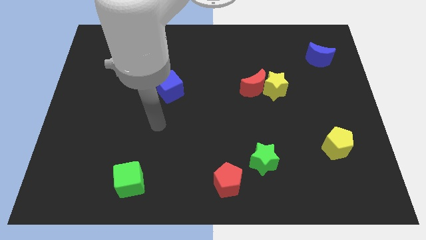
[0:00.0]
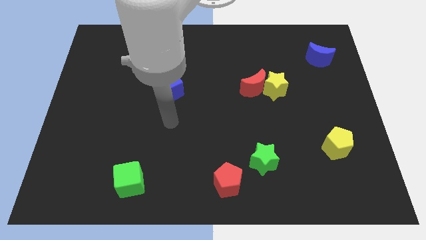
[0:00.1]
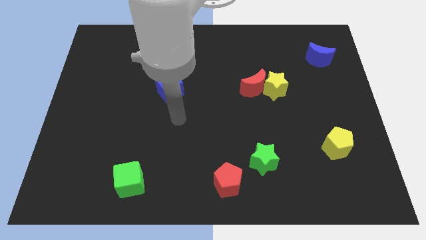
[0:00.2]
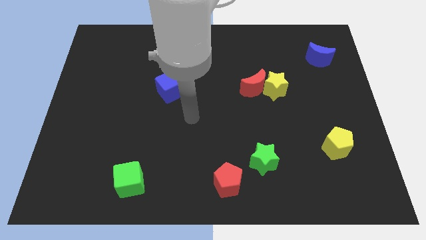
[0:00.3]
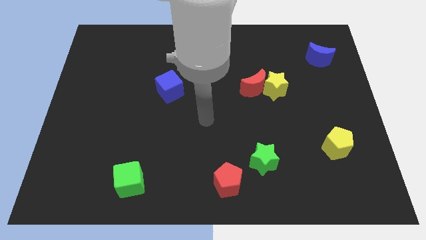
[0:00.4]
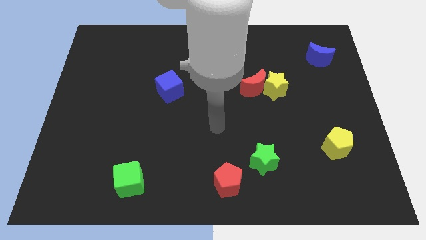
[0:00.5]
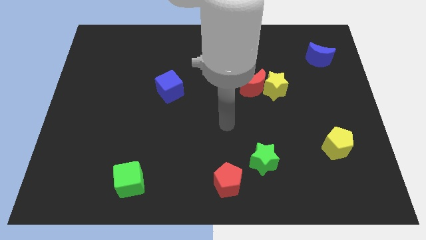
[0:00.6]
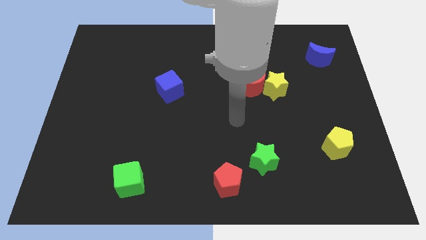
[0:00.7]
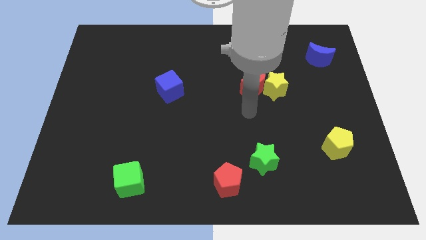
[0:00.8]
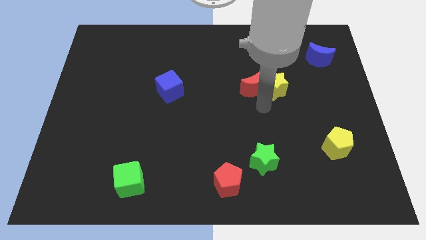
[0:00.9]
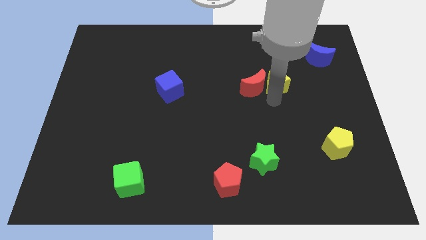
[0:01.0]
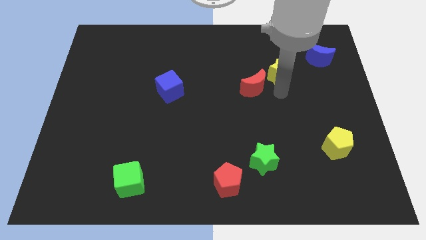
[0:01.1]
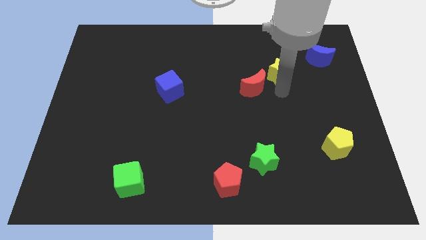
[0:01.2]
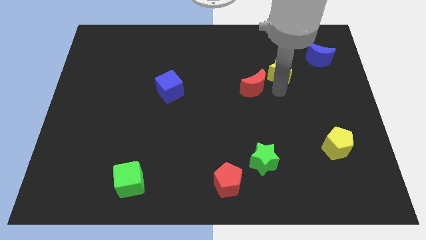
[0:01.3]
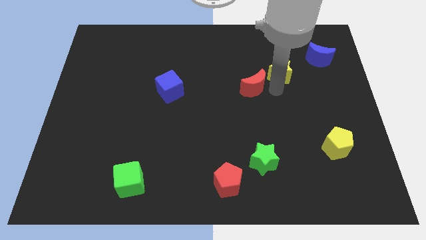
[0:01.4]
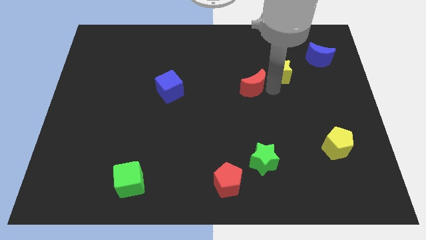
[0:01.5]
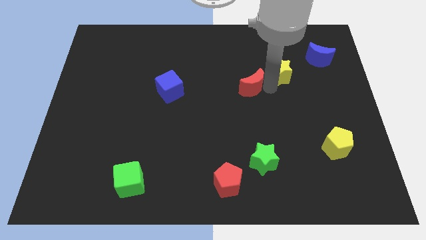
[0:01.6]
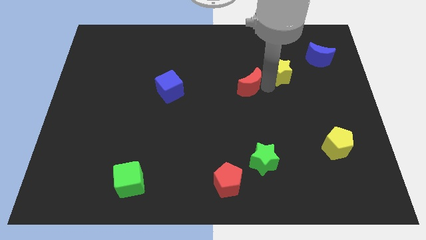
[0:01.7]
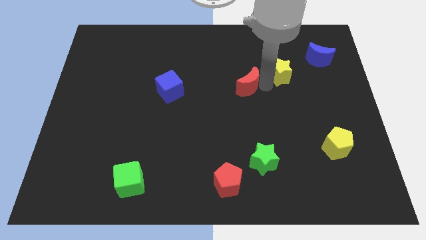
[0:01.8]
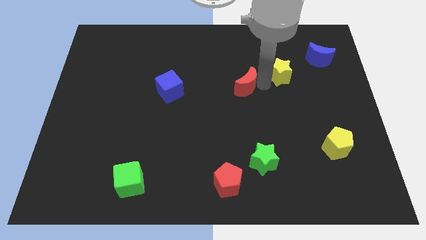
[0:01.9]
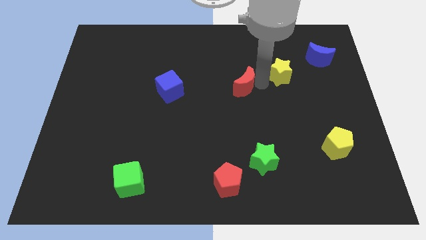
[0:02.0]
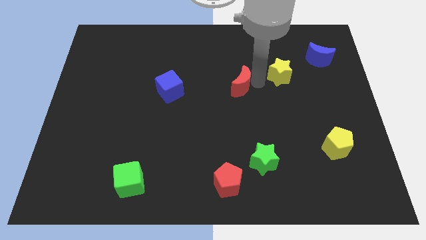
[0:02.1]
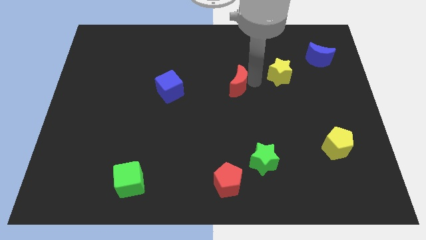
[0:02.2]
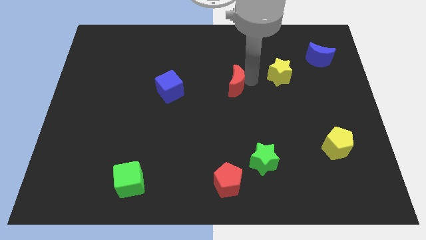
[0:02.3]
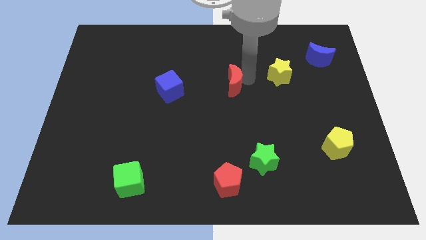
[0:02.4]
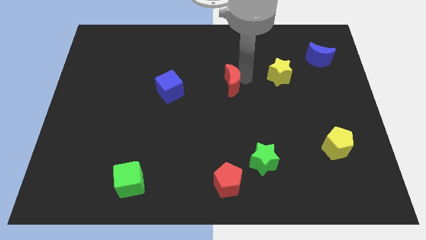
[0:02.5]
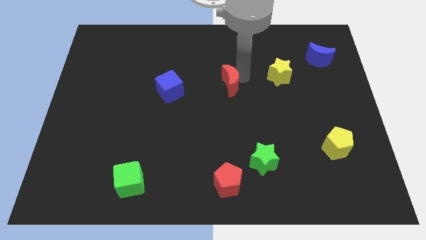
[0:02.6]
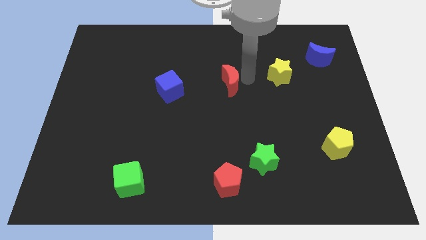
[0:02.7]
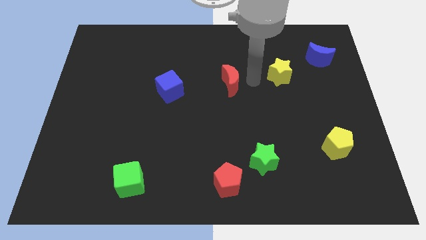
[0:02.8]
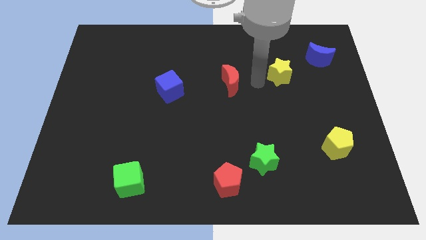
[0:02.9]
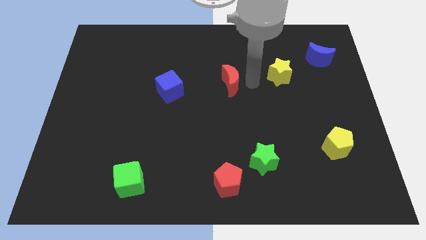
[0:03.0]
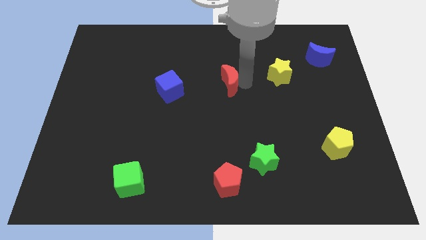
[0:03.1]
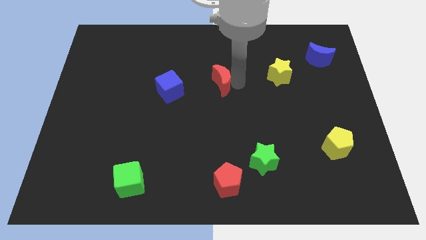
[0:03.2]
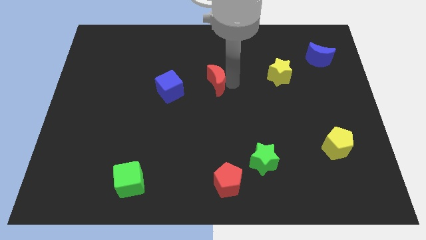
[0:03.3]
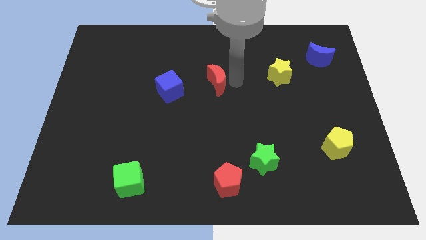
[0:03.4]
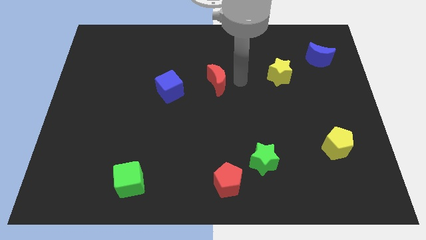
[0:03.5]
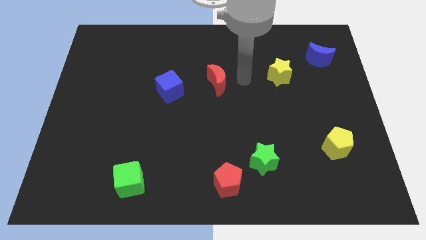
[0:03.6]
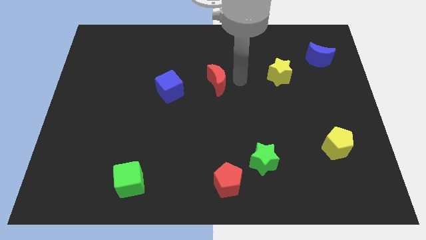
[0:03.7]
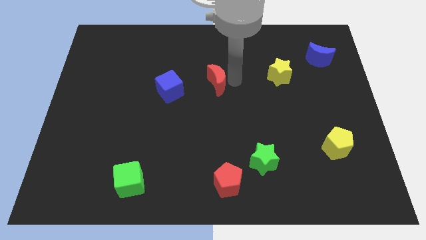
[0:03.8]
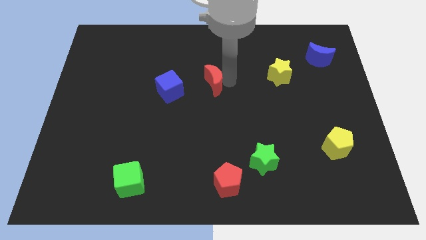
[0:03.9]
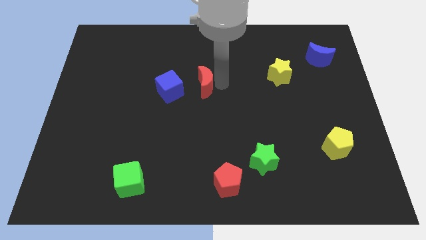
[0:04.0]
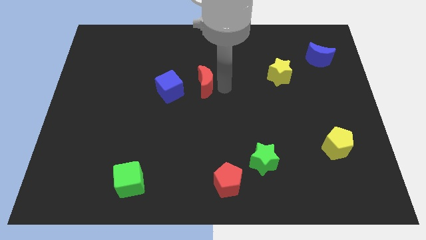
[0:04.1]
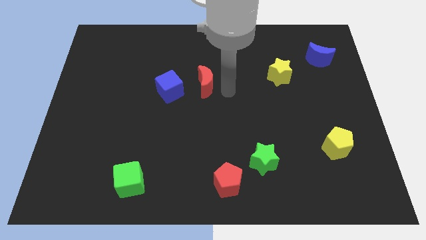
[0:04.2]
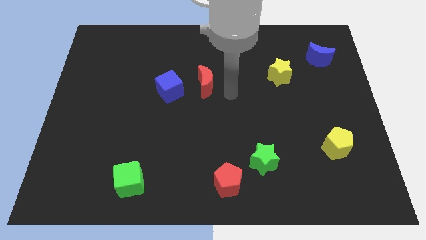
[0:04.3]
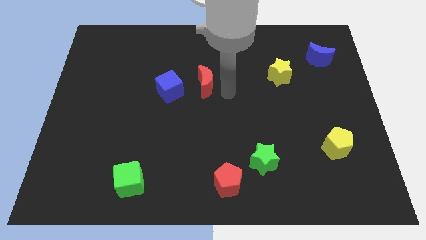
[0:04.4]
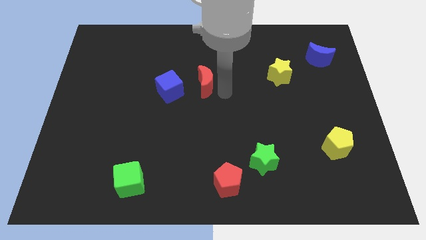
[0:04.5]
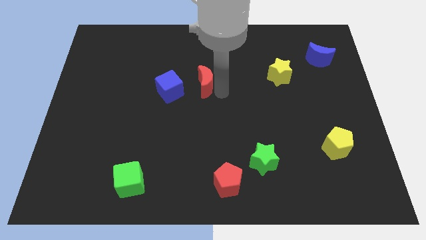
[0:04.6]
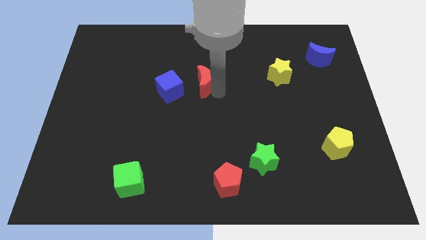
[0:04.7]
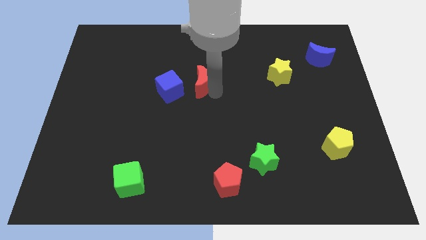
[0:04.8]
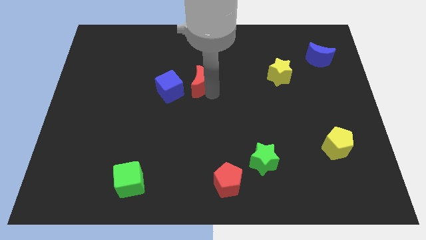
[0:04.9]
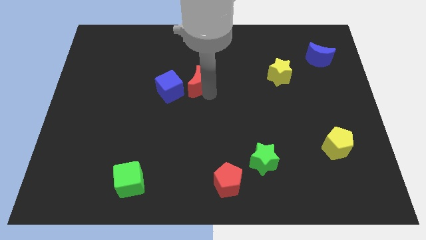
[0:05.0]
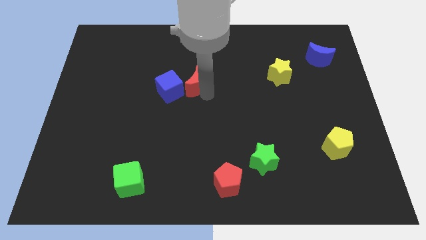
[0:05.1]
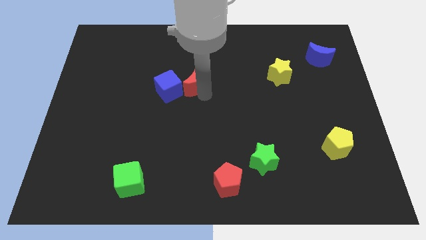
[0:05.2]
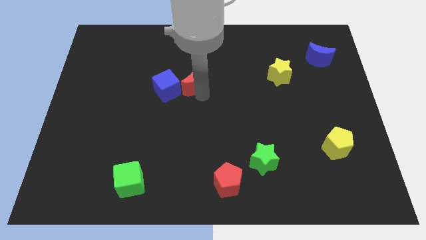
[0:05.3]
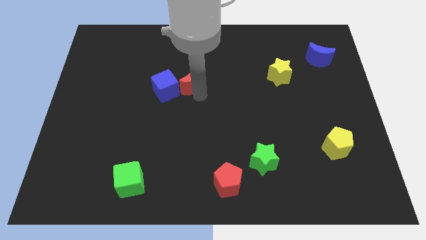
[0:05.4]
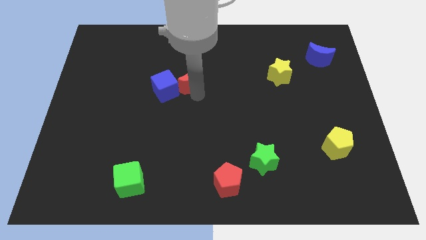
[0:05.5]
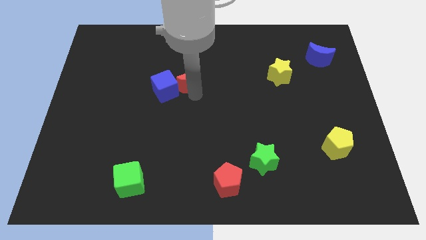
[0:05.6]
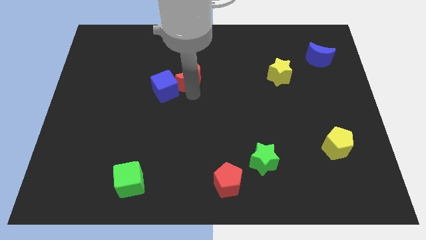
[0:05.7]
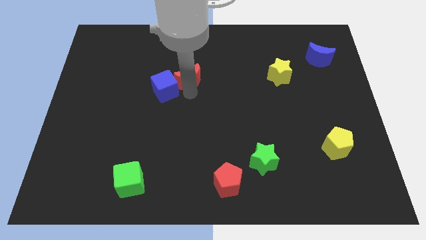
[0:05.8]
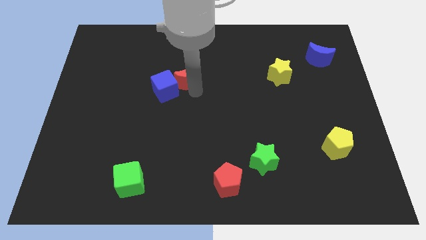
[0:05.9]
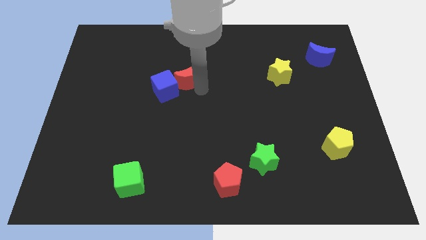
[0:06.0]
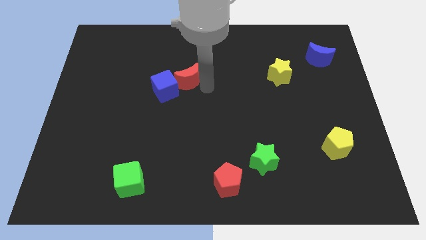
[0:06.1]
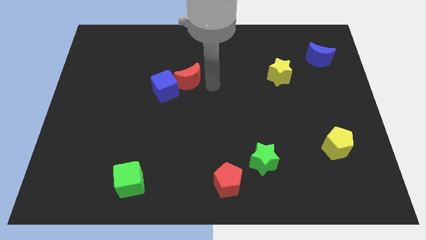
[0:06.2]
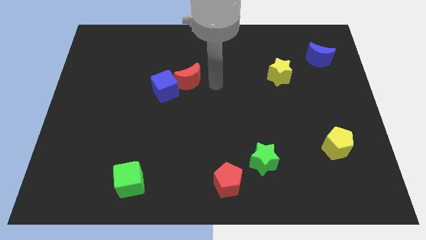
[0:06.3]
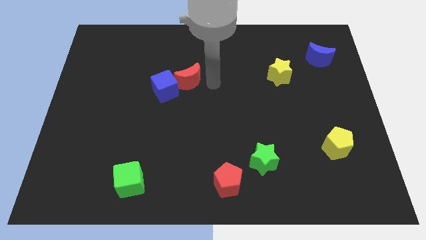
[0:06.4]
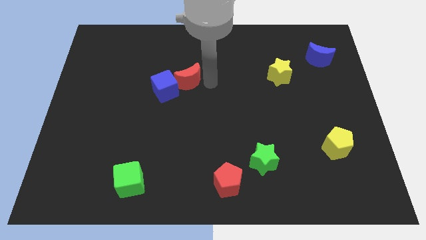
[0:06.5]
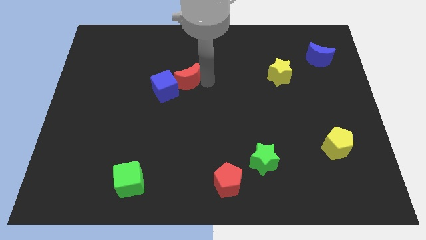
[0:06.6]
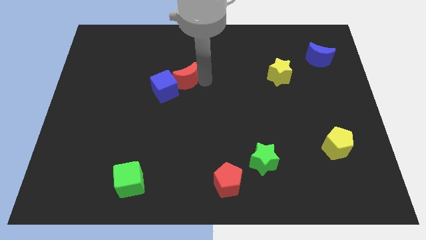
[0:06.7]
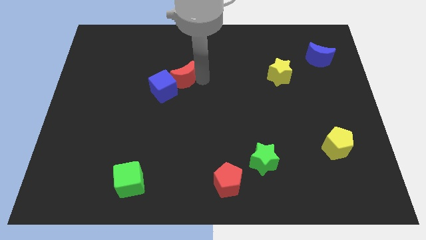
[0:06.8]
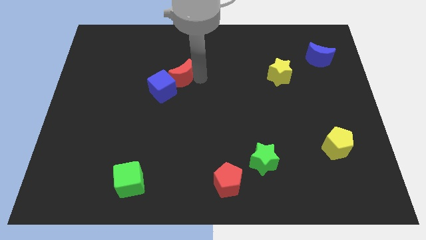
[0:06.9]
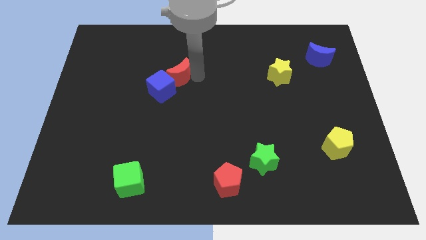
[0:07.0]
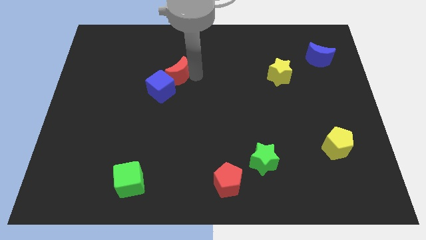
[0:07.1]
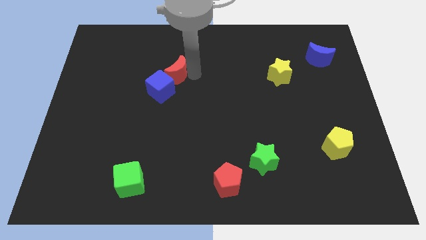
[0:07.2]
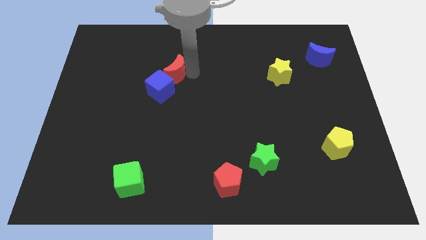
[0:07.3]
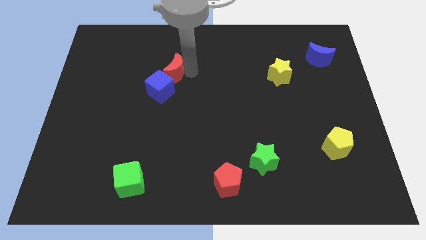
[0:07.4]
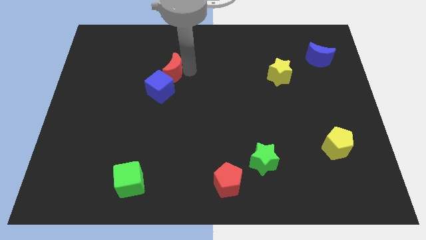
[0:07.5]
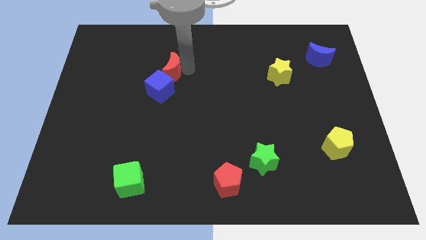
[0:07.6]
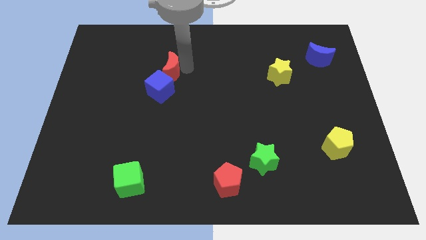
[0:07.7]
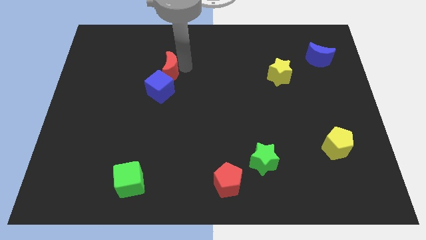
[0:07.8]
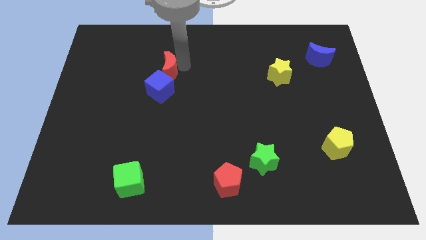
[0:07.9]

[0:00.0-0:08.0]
push the red moon left

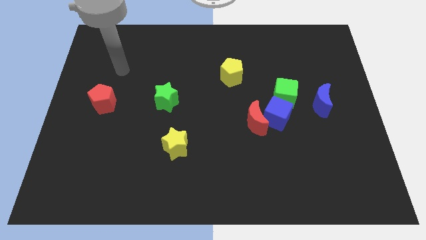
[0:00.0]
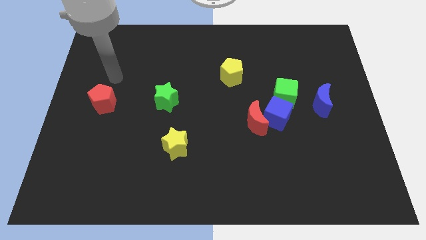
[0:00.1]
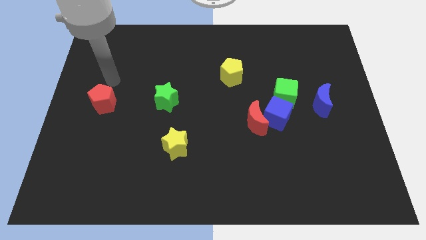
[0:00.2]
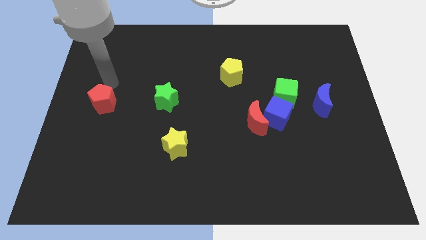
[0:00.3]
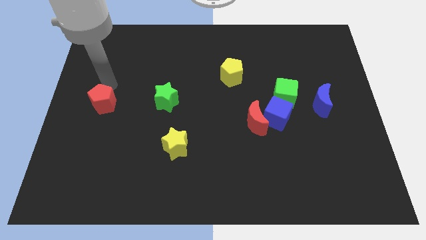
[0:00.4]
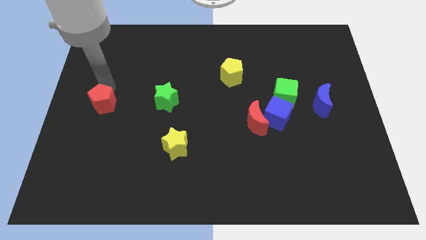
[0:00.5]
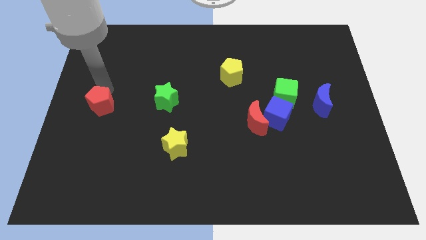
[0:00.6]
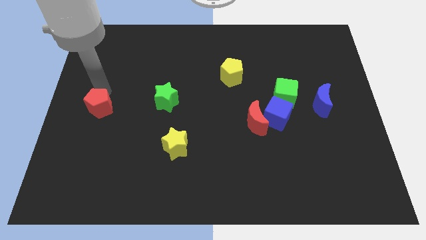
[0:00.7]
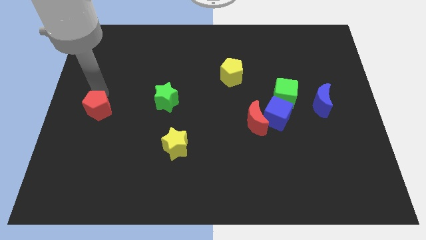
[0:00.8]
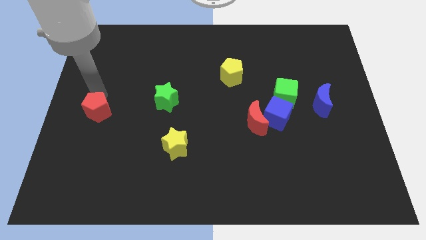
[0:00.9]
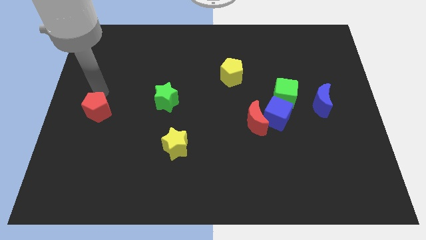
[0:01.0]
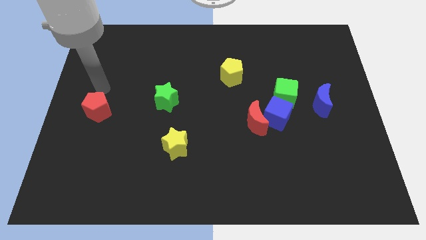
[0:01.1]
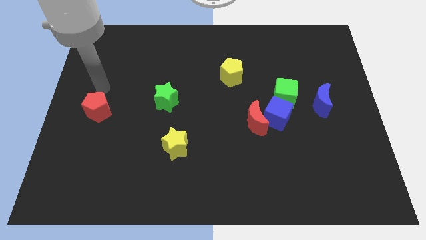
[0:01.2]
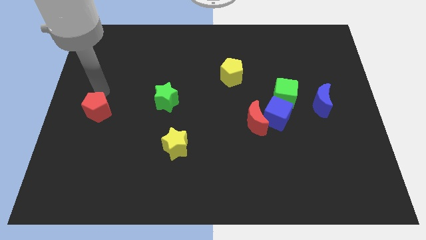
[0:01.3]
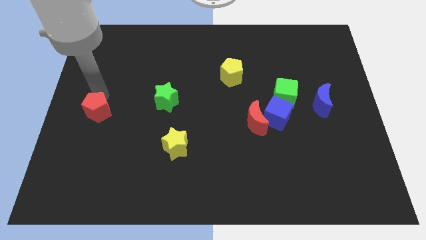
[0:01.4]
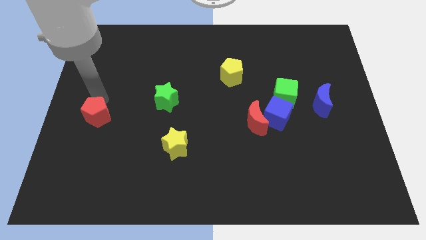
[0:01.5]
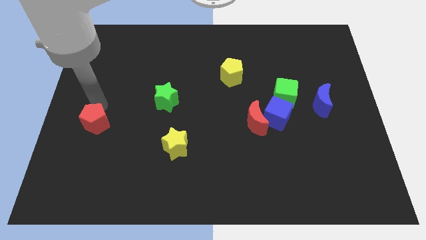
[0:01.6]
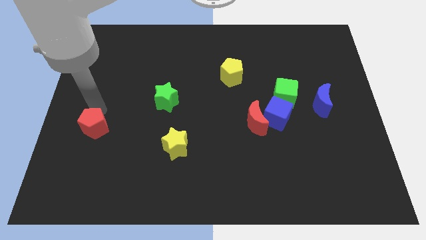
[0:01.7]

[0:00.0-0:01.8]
slightly slide the red pentagon downwards
